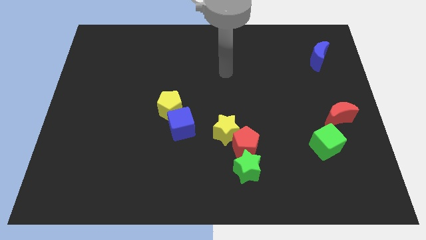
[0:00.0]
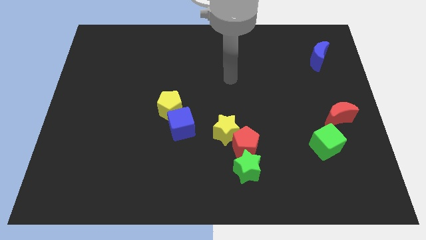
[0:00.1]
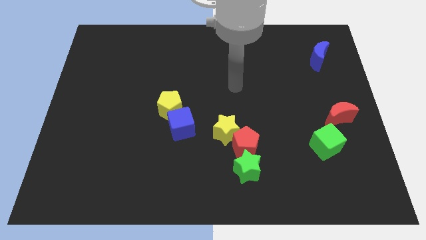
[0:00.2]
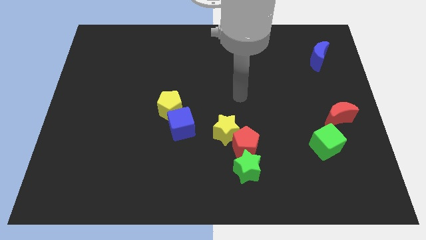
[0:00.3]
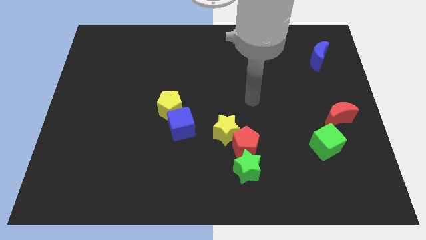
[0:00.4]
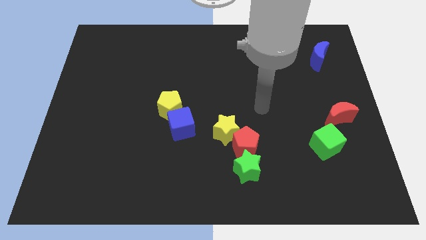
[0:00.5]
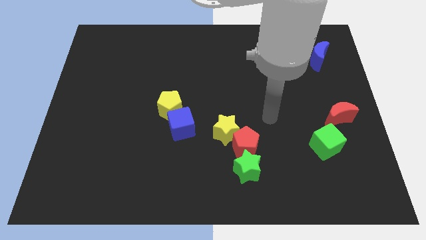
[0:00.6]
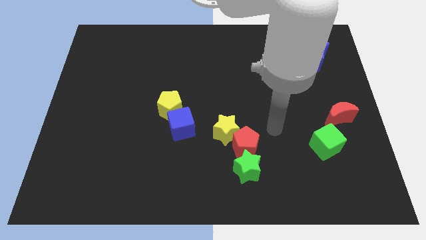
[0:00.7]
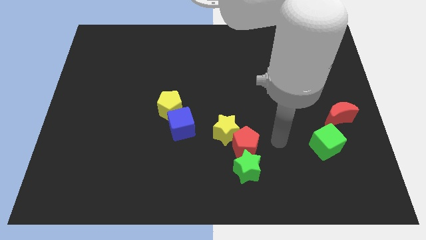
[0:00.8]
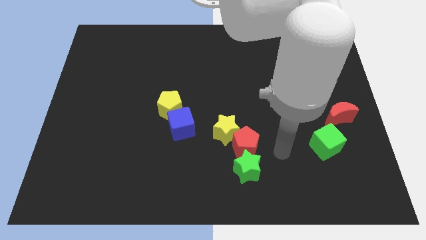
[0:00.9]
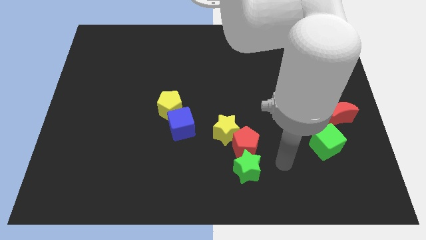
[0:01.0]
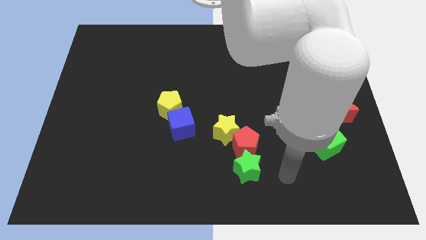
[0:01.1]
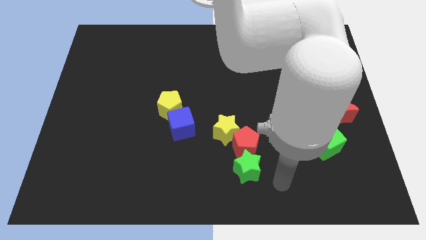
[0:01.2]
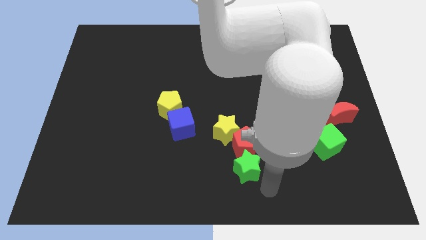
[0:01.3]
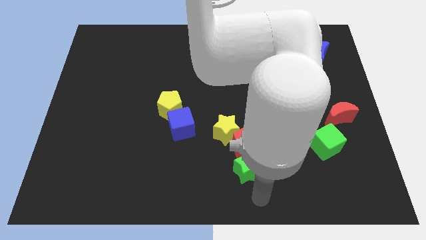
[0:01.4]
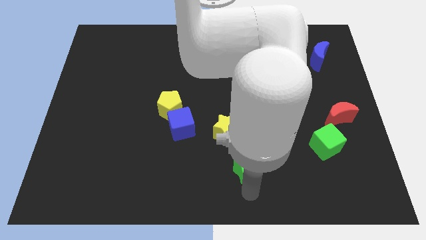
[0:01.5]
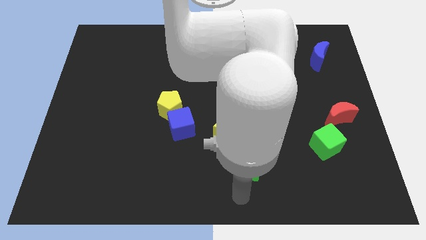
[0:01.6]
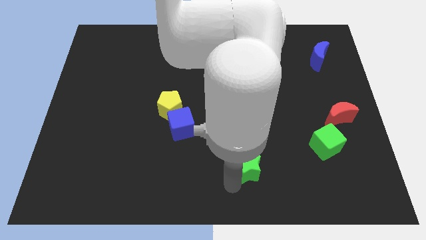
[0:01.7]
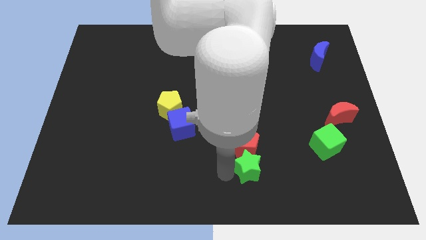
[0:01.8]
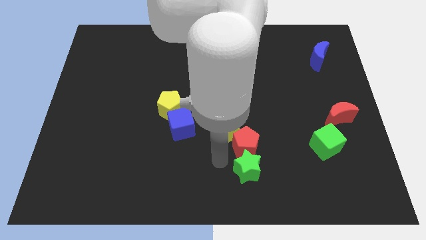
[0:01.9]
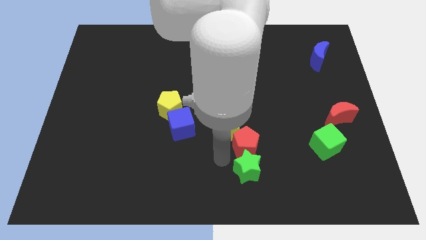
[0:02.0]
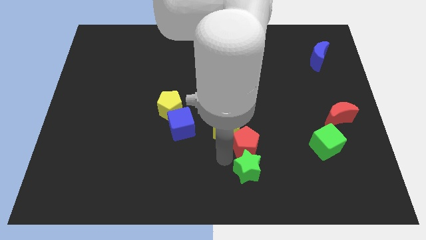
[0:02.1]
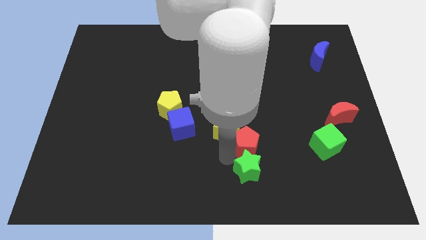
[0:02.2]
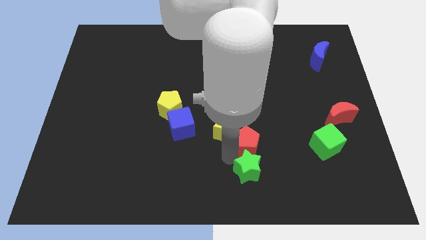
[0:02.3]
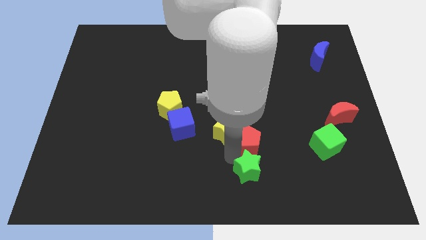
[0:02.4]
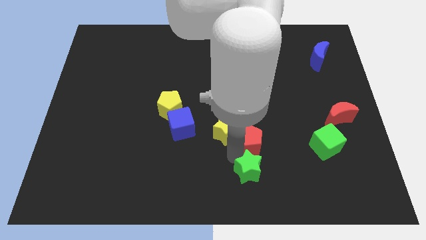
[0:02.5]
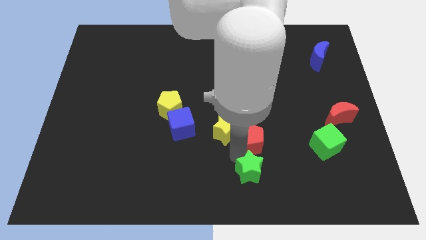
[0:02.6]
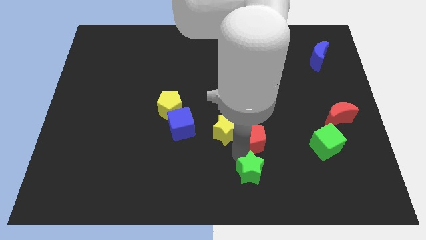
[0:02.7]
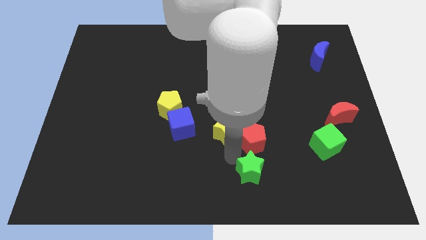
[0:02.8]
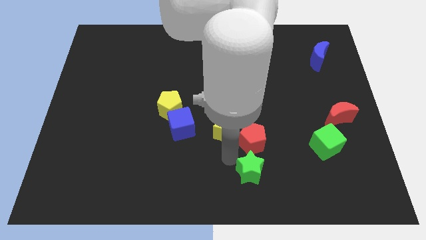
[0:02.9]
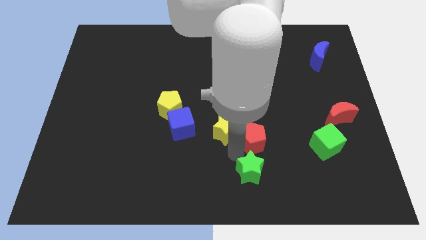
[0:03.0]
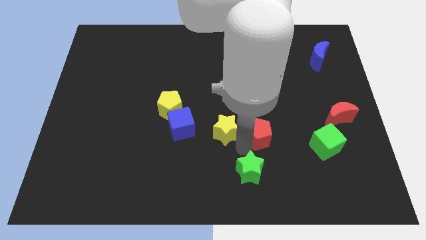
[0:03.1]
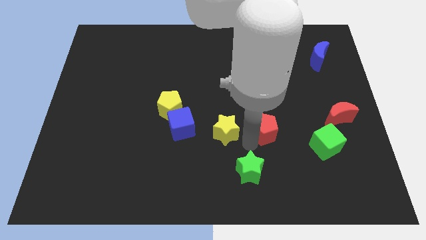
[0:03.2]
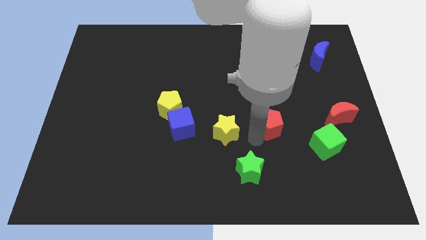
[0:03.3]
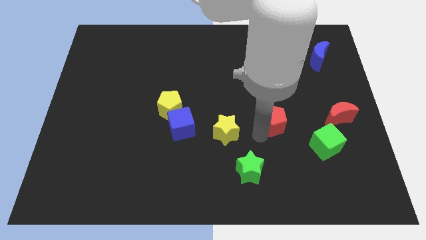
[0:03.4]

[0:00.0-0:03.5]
separate the red pentagon from the yellow star and green star

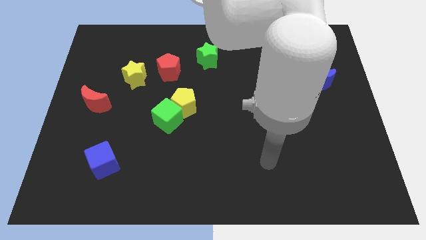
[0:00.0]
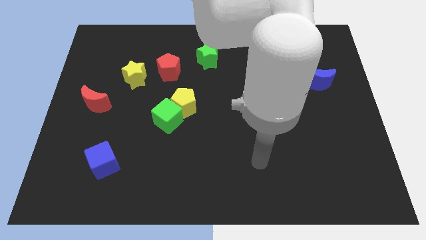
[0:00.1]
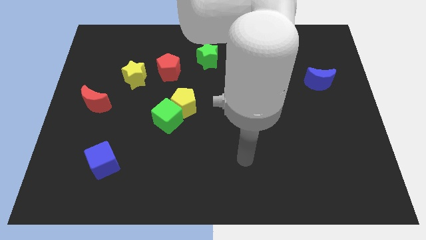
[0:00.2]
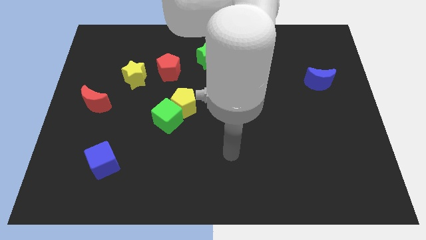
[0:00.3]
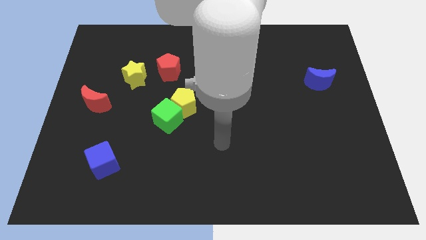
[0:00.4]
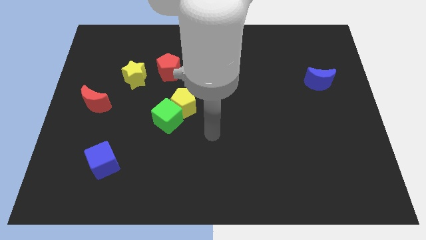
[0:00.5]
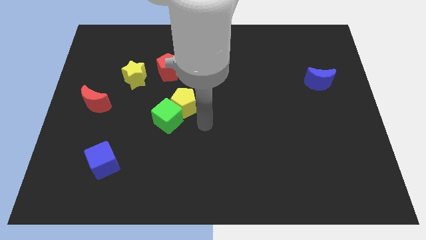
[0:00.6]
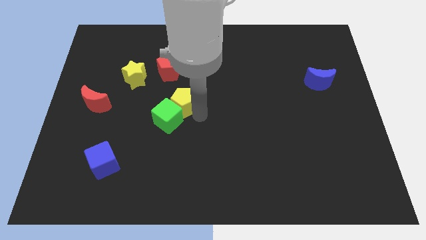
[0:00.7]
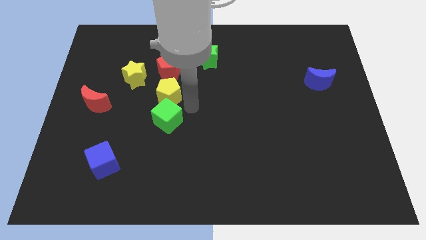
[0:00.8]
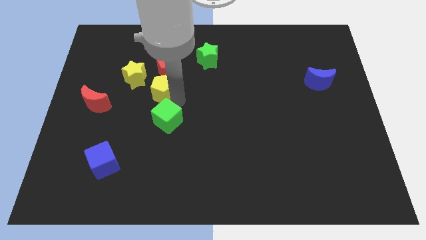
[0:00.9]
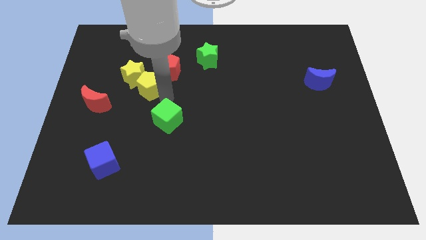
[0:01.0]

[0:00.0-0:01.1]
move the green cube away from the yellow pentagon

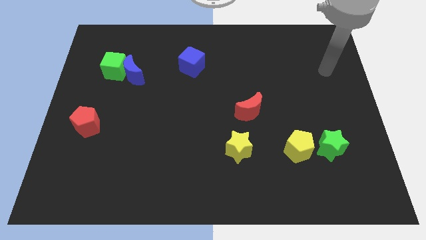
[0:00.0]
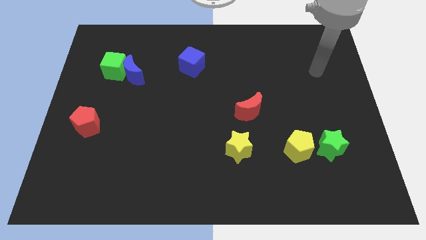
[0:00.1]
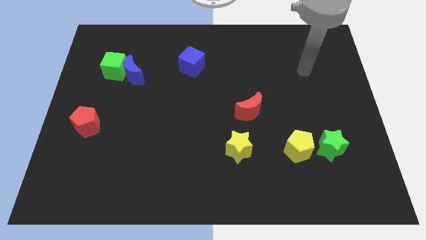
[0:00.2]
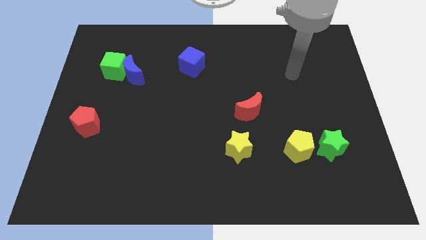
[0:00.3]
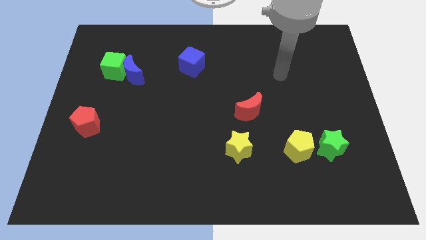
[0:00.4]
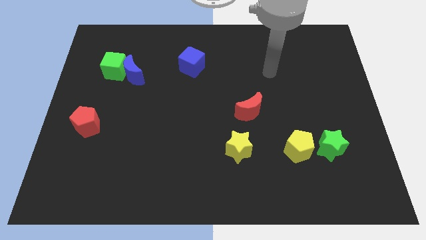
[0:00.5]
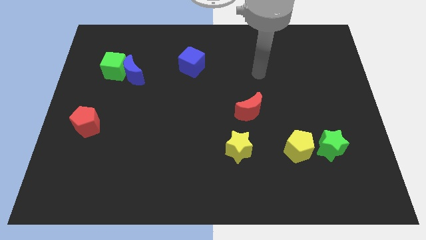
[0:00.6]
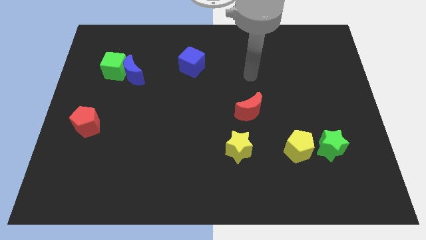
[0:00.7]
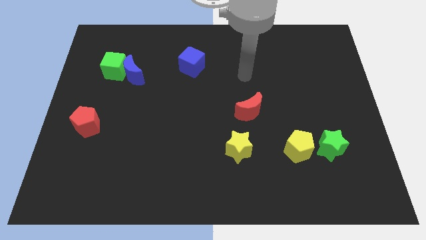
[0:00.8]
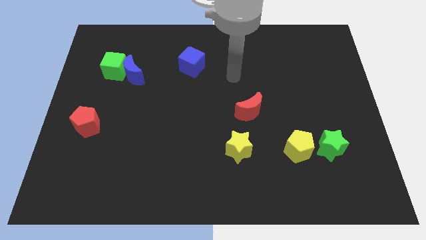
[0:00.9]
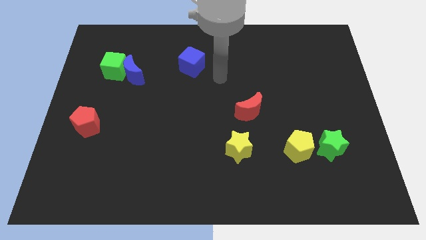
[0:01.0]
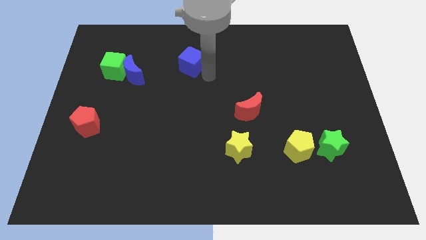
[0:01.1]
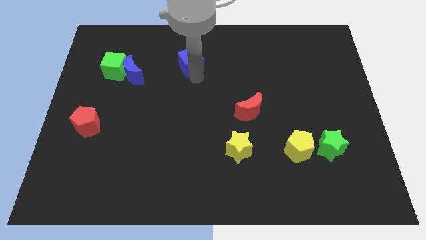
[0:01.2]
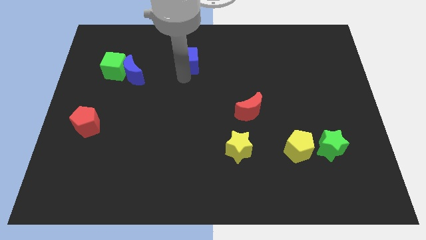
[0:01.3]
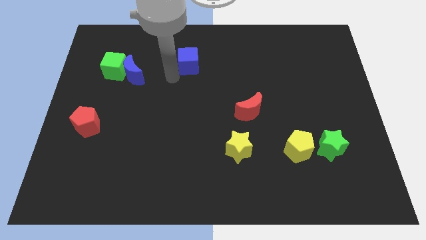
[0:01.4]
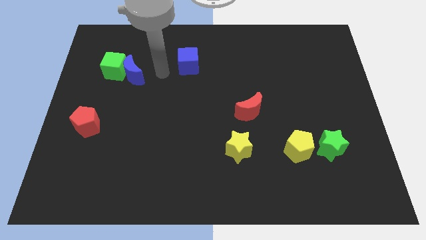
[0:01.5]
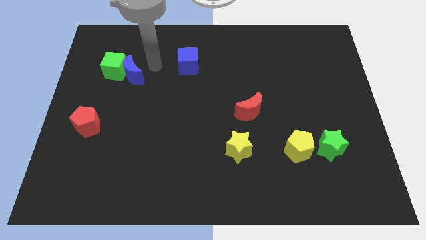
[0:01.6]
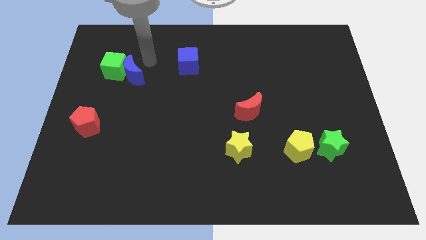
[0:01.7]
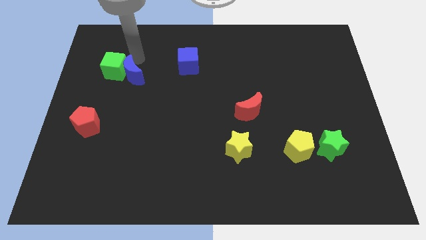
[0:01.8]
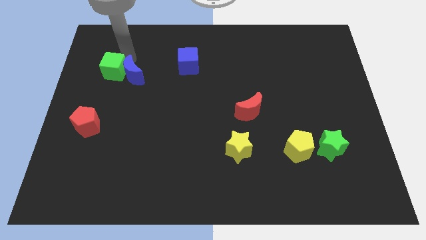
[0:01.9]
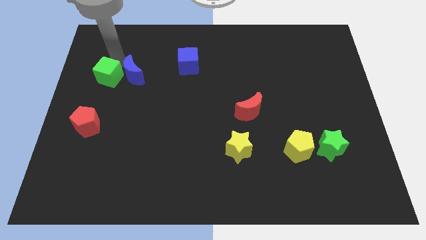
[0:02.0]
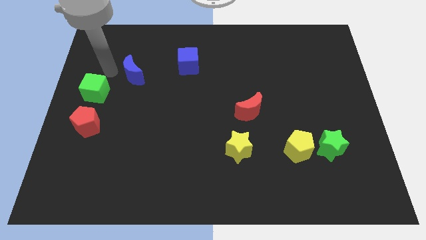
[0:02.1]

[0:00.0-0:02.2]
pull the blue moon apart from the green cube

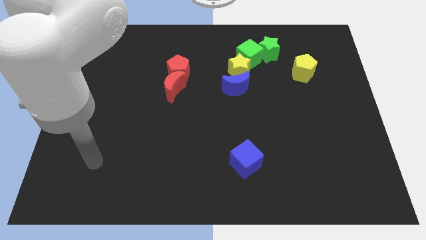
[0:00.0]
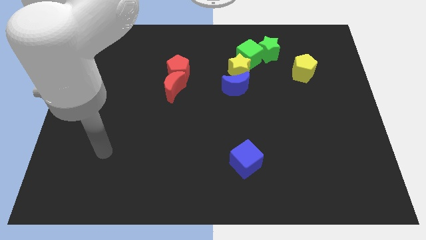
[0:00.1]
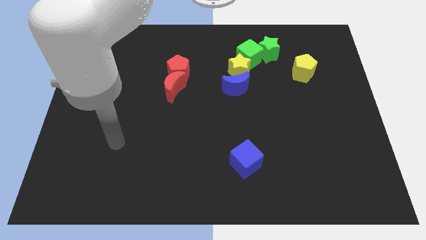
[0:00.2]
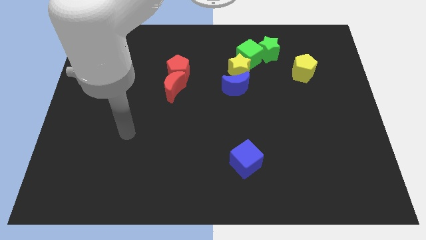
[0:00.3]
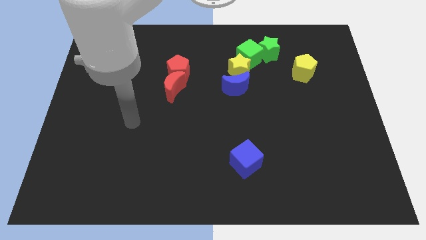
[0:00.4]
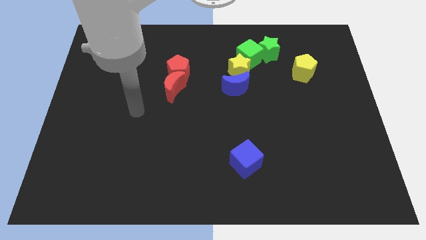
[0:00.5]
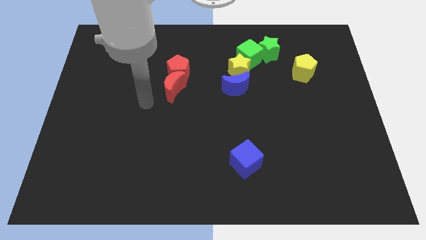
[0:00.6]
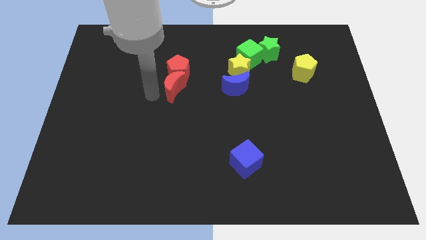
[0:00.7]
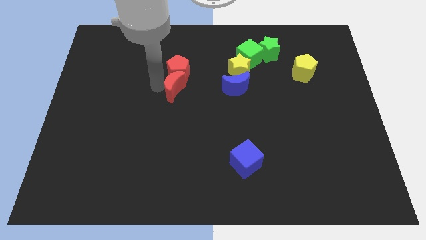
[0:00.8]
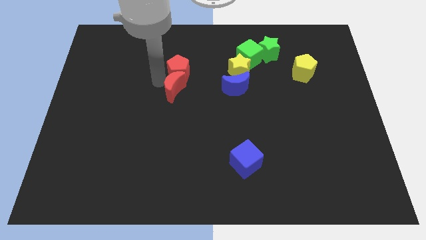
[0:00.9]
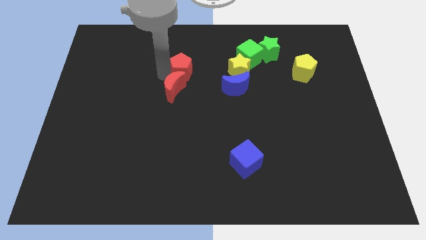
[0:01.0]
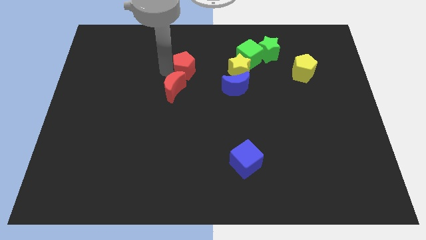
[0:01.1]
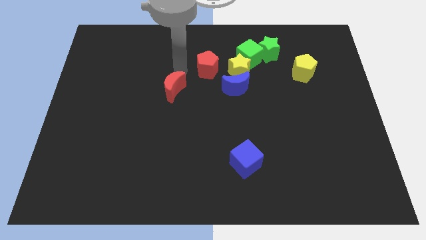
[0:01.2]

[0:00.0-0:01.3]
move the red moon away from the red pentagon

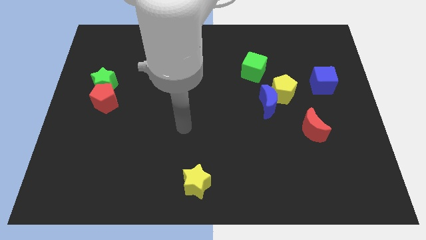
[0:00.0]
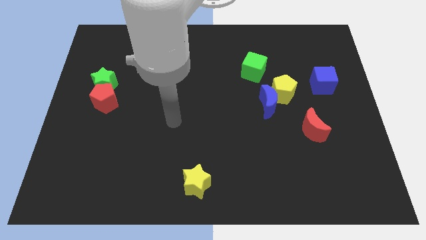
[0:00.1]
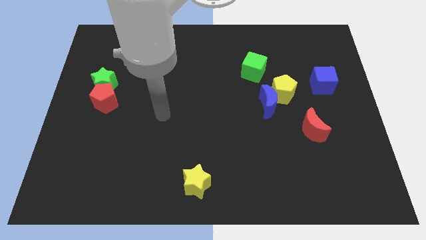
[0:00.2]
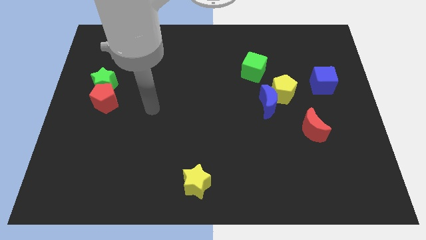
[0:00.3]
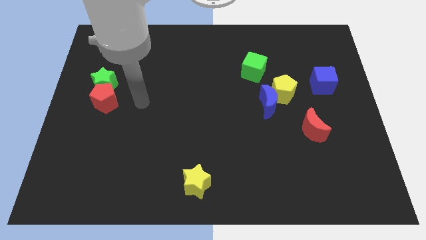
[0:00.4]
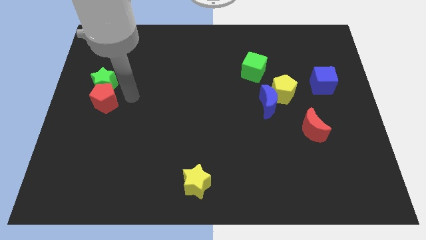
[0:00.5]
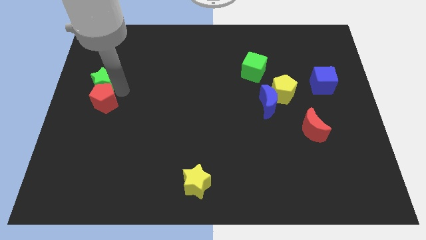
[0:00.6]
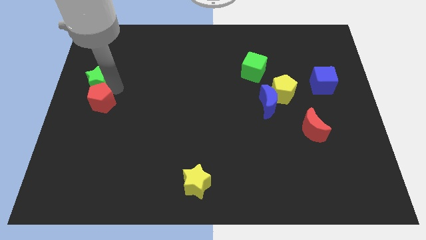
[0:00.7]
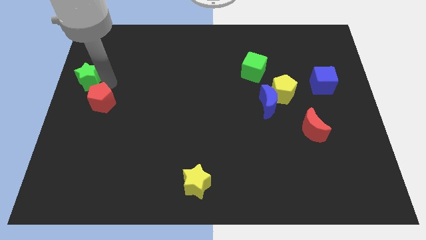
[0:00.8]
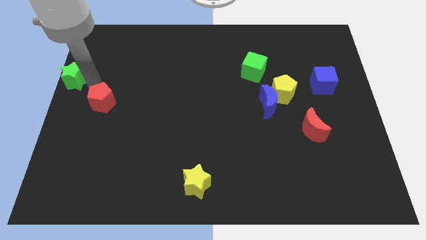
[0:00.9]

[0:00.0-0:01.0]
move the red pentagon away from the green star

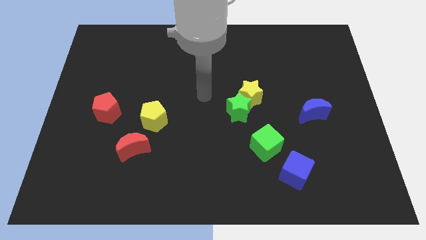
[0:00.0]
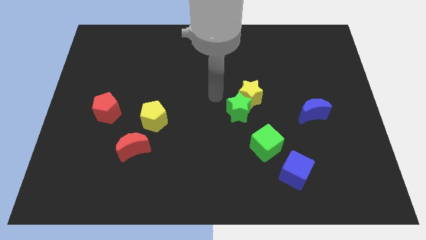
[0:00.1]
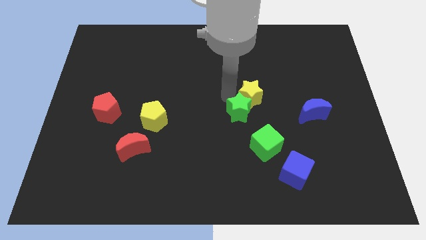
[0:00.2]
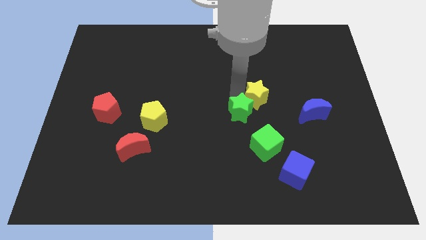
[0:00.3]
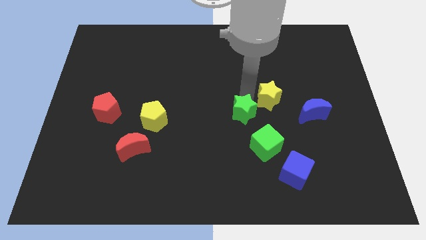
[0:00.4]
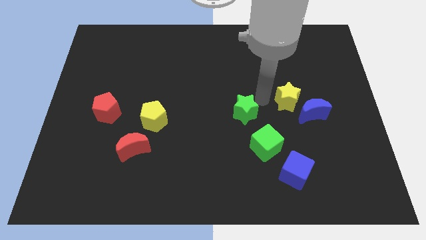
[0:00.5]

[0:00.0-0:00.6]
move the green star away from the yellow star
